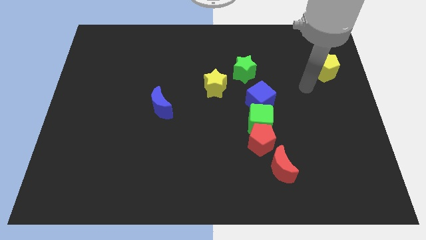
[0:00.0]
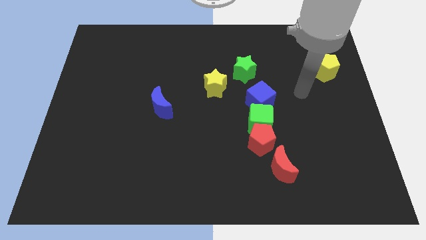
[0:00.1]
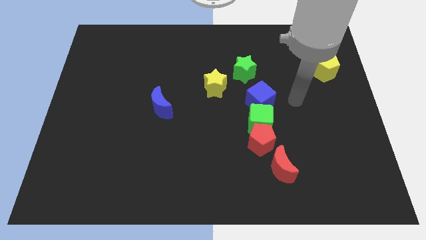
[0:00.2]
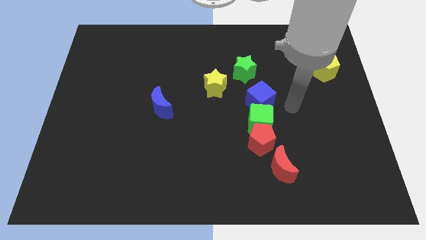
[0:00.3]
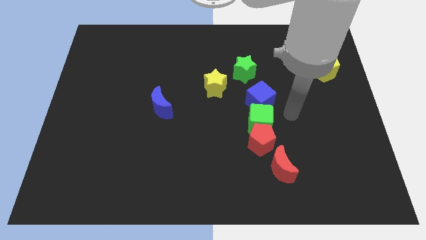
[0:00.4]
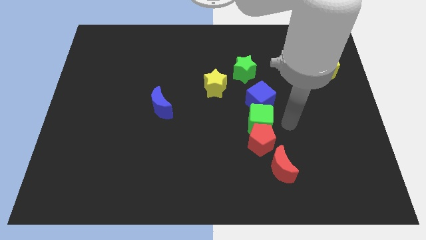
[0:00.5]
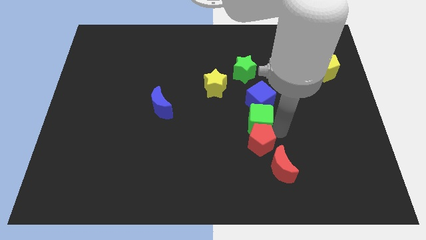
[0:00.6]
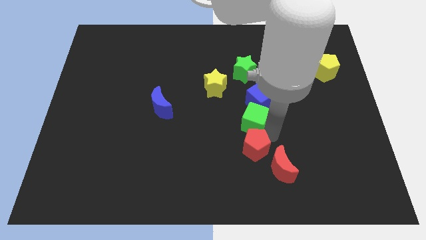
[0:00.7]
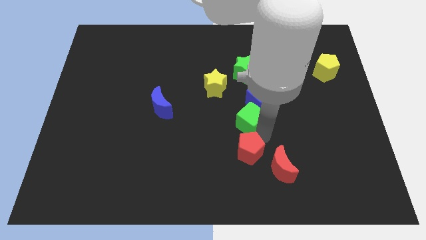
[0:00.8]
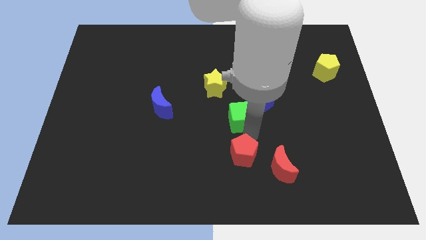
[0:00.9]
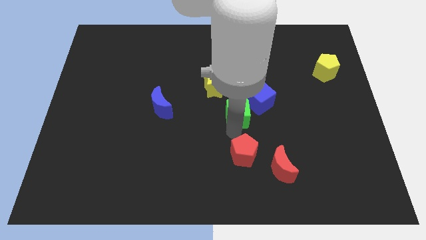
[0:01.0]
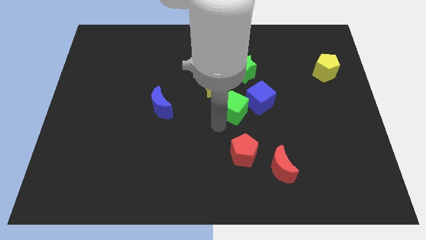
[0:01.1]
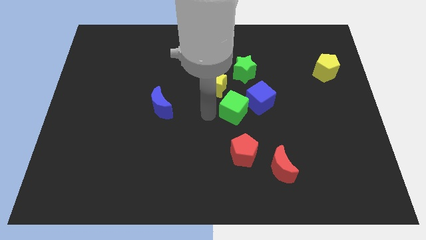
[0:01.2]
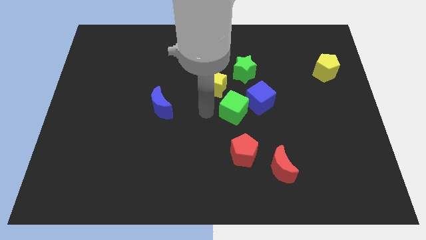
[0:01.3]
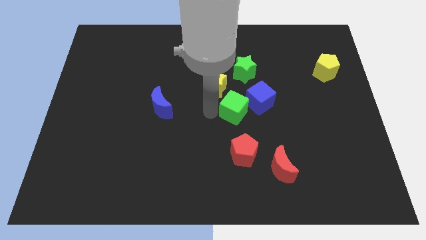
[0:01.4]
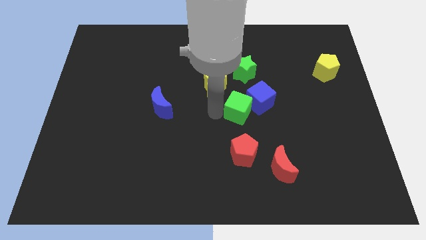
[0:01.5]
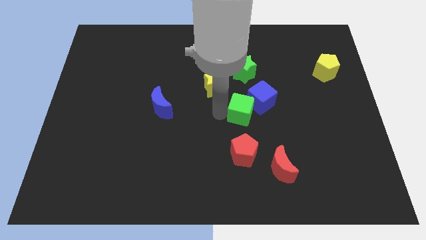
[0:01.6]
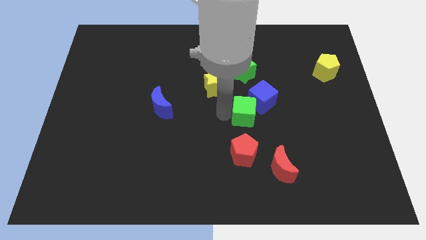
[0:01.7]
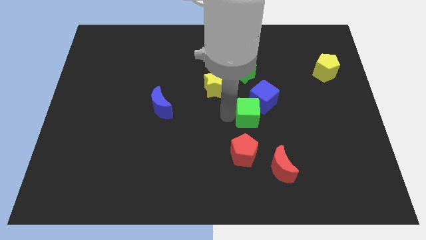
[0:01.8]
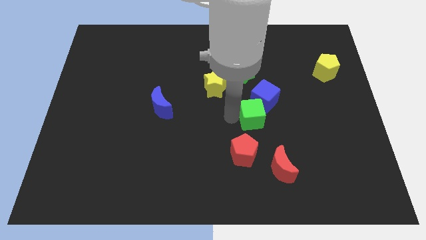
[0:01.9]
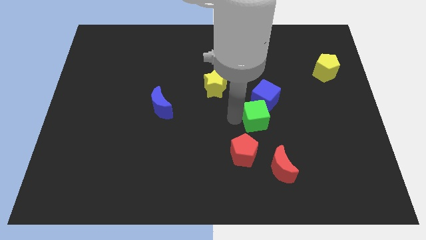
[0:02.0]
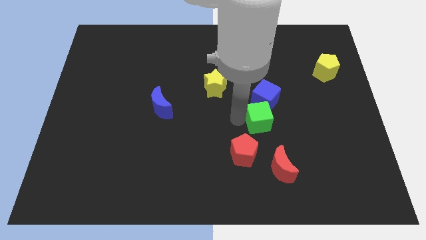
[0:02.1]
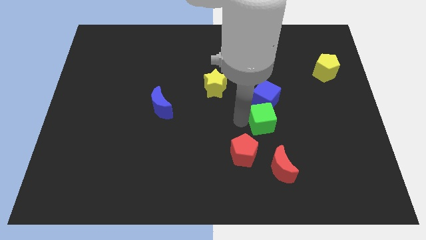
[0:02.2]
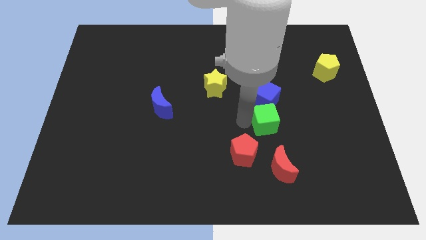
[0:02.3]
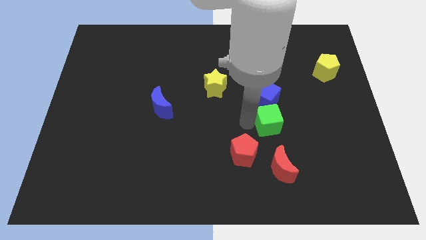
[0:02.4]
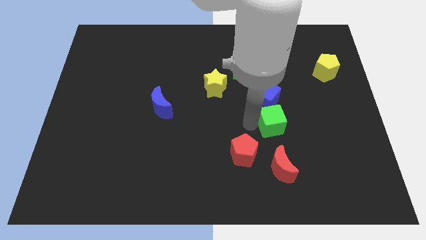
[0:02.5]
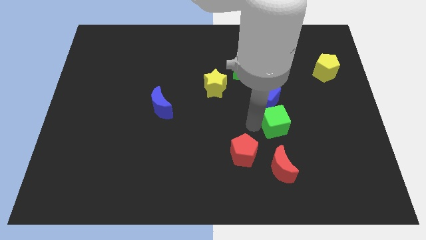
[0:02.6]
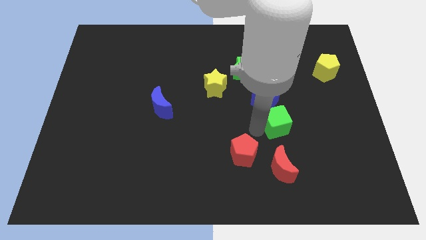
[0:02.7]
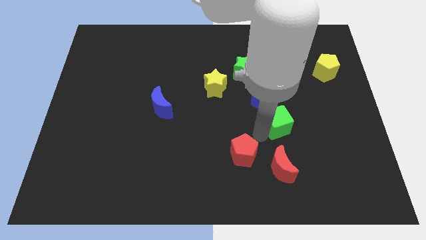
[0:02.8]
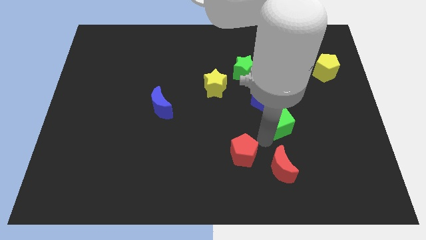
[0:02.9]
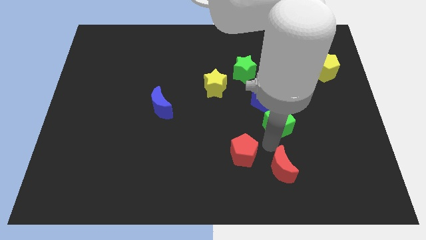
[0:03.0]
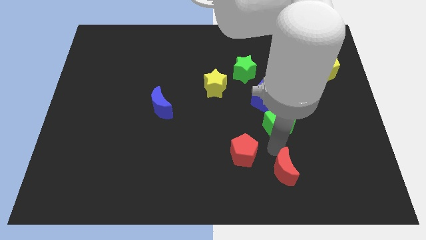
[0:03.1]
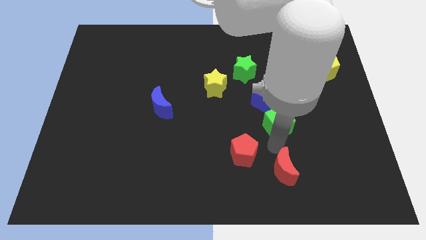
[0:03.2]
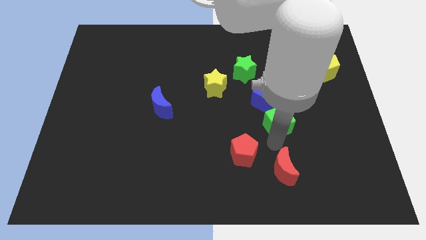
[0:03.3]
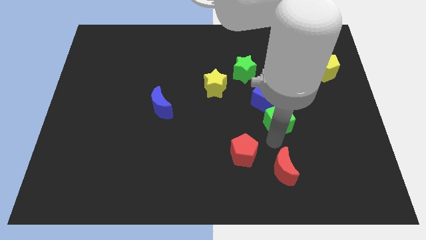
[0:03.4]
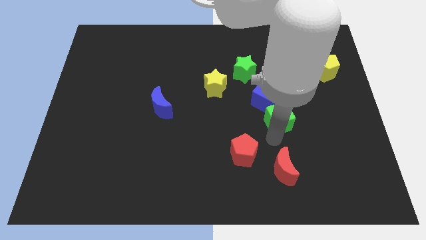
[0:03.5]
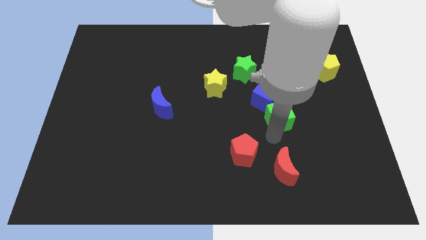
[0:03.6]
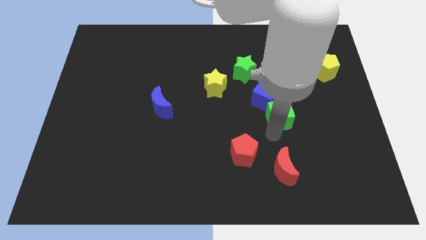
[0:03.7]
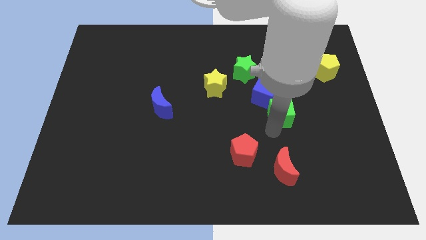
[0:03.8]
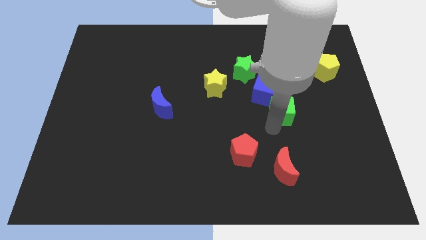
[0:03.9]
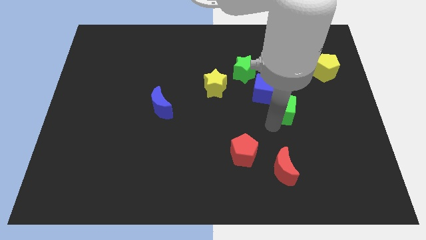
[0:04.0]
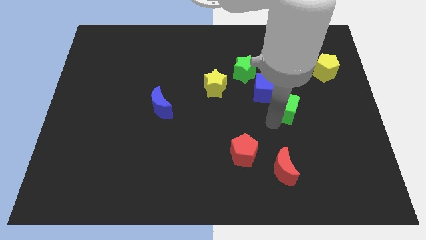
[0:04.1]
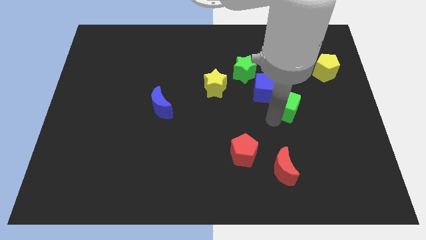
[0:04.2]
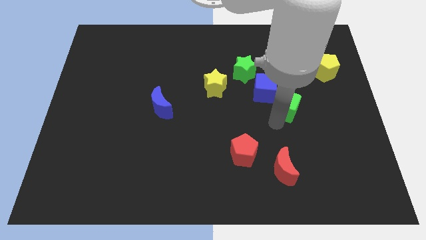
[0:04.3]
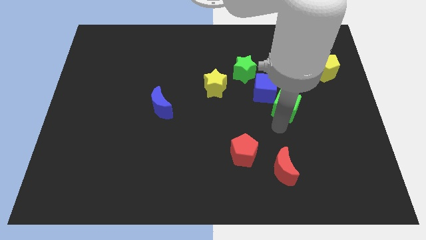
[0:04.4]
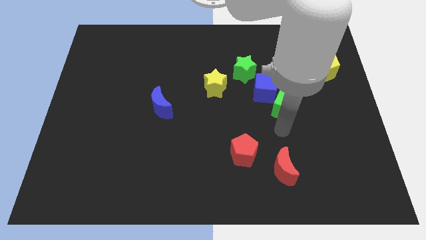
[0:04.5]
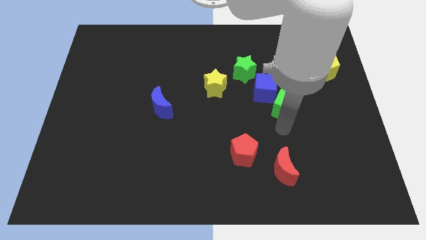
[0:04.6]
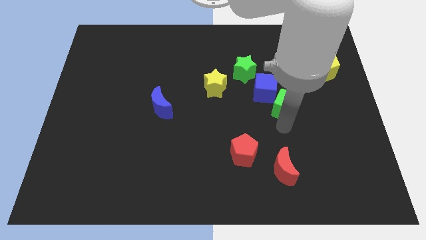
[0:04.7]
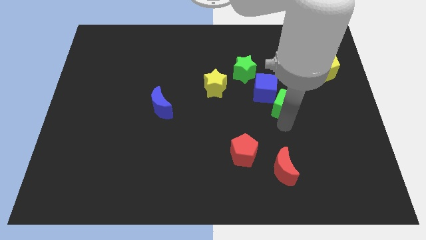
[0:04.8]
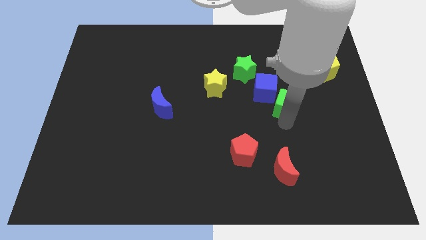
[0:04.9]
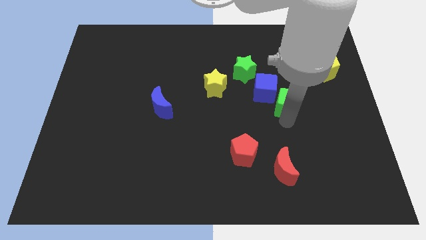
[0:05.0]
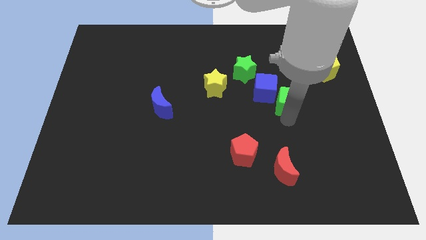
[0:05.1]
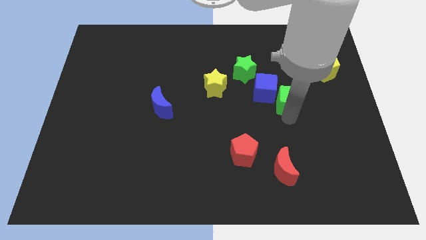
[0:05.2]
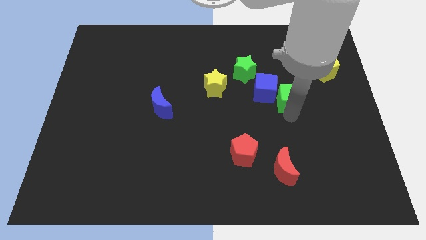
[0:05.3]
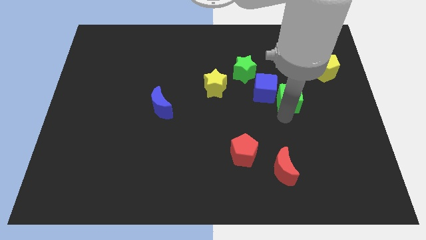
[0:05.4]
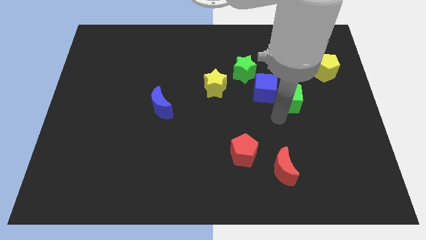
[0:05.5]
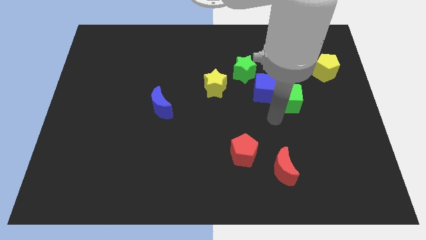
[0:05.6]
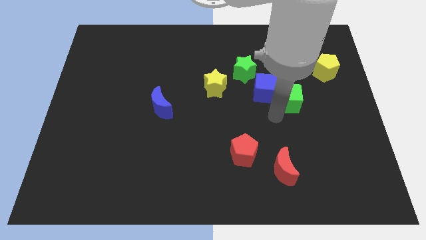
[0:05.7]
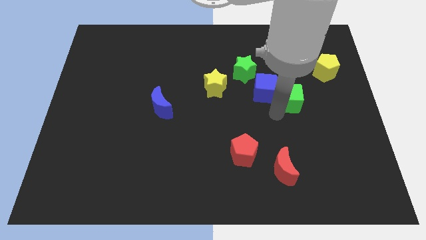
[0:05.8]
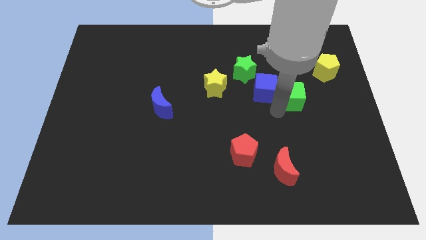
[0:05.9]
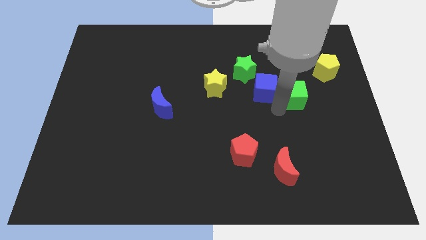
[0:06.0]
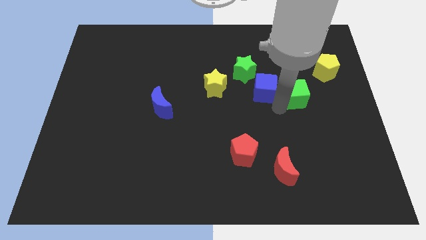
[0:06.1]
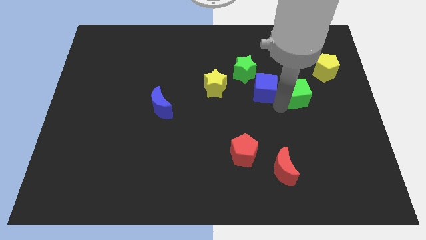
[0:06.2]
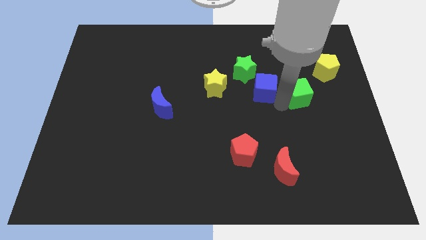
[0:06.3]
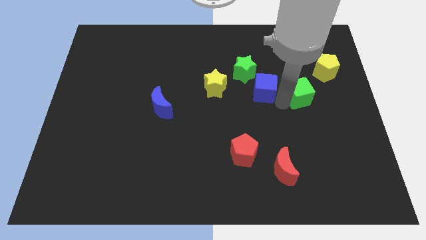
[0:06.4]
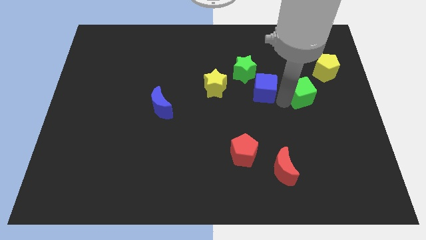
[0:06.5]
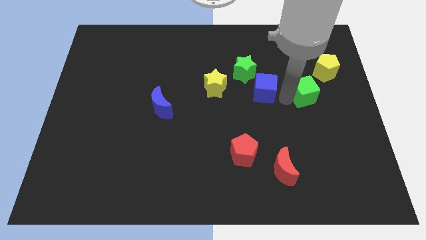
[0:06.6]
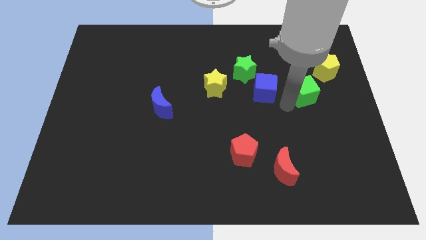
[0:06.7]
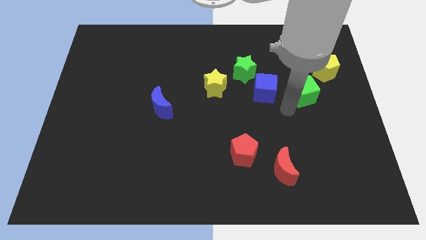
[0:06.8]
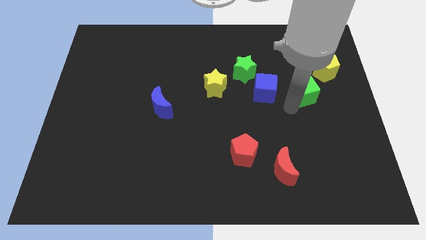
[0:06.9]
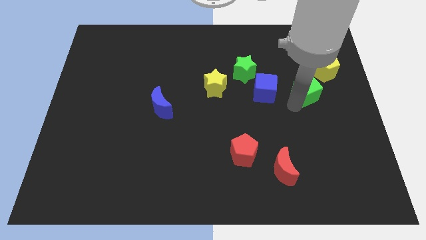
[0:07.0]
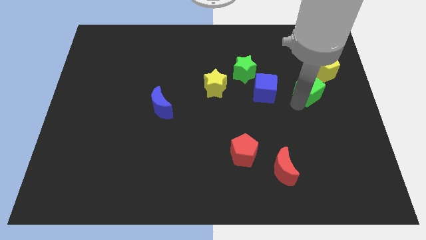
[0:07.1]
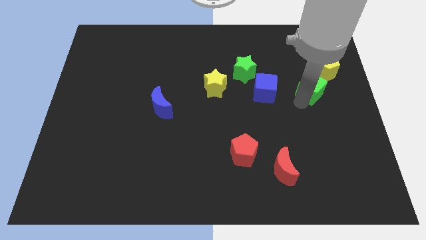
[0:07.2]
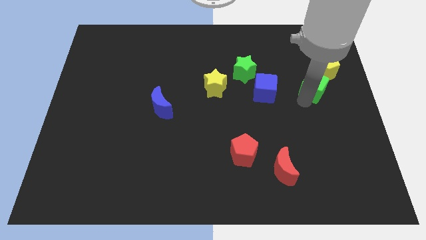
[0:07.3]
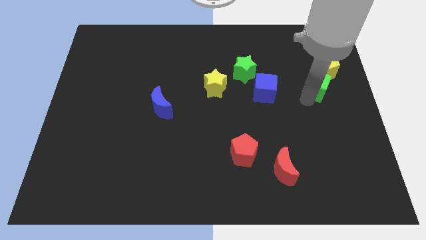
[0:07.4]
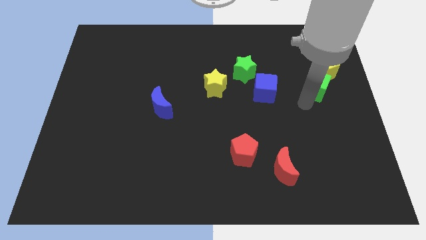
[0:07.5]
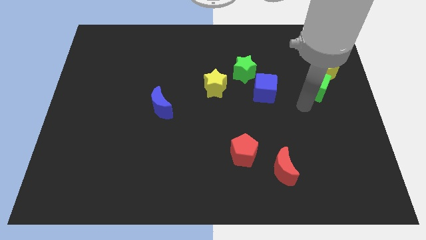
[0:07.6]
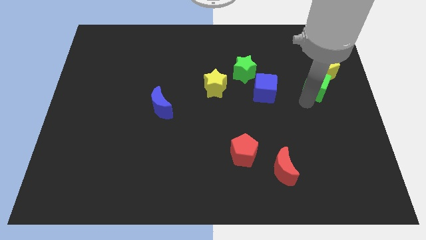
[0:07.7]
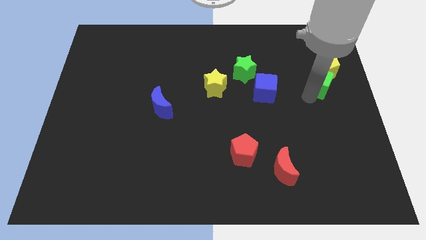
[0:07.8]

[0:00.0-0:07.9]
push the green cube towards the yellow pentagon
